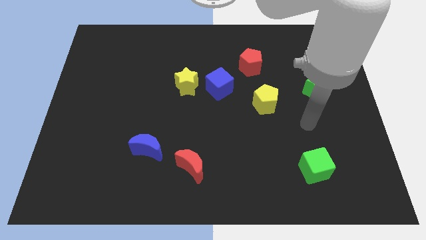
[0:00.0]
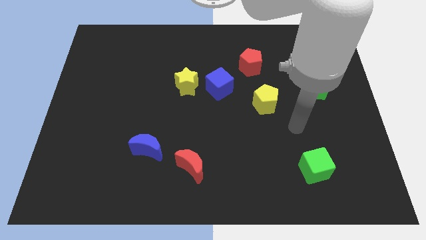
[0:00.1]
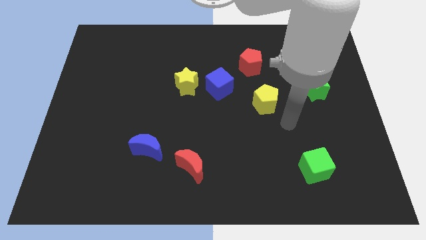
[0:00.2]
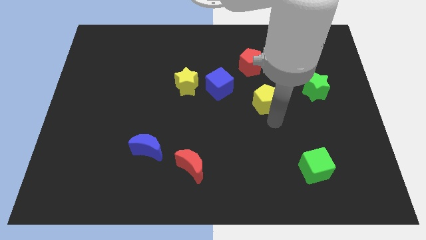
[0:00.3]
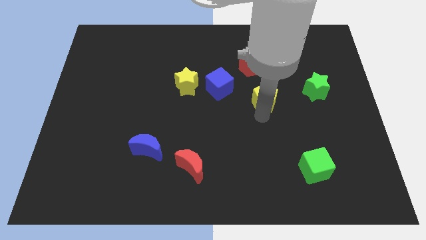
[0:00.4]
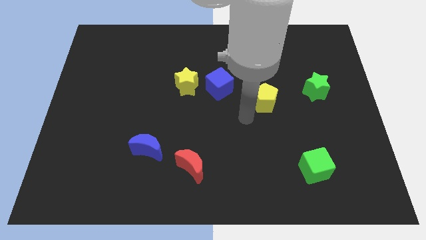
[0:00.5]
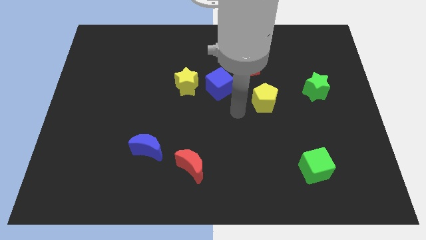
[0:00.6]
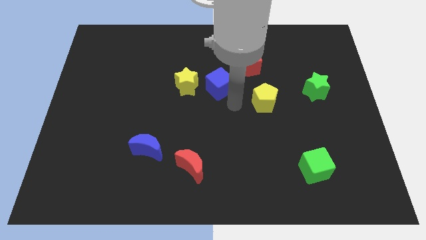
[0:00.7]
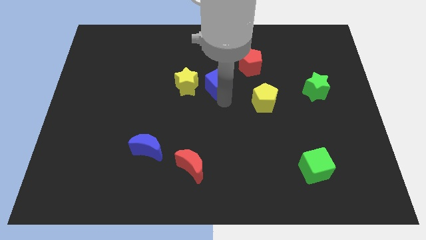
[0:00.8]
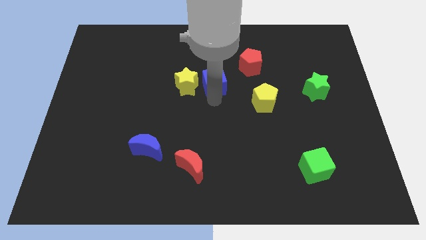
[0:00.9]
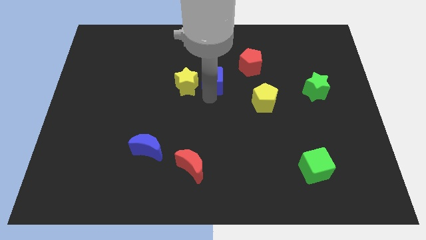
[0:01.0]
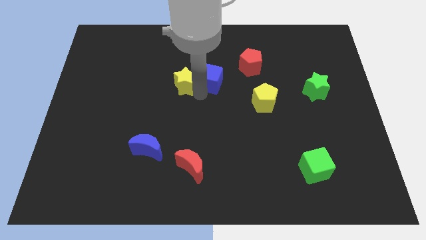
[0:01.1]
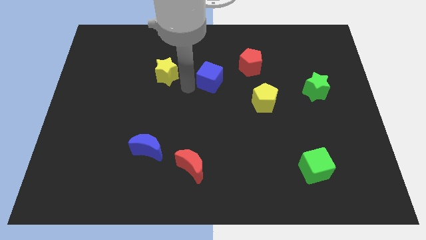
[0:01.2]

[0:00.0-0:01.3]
move the blue cube away from the yellow star

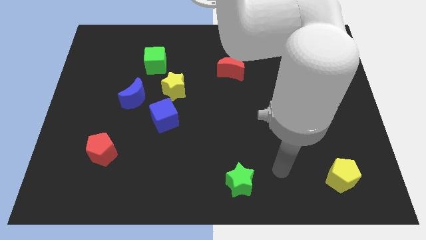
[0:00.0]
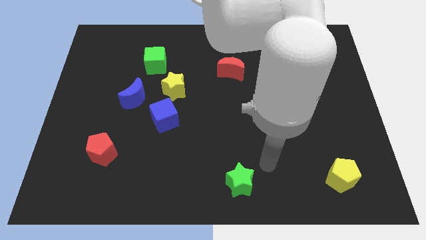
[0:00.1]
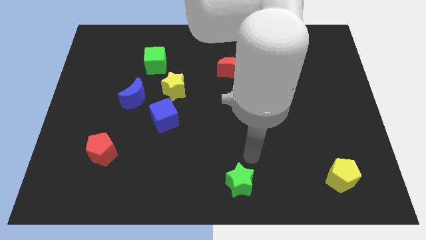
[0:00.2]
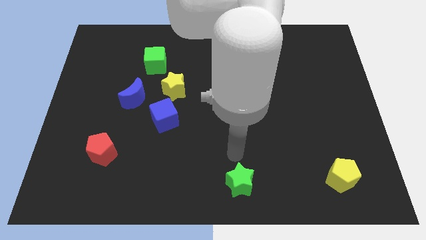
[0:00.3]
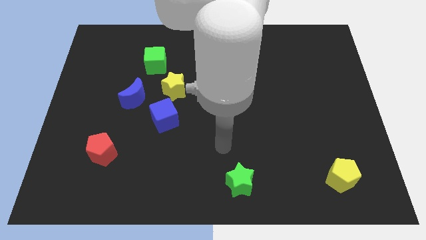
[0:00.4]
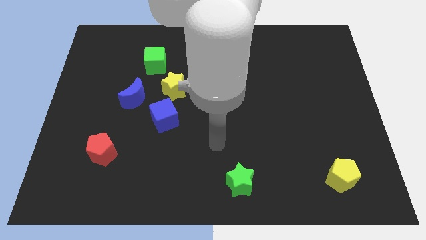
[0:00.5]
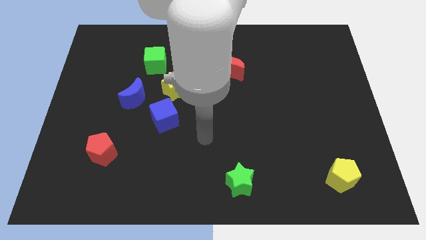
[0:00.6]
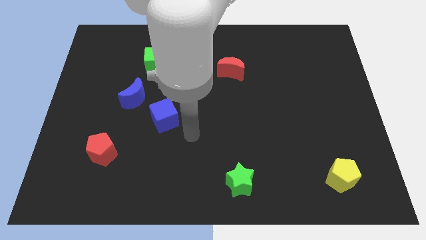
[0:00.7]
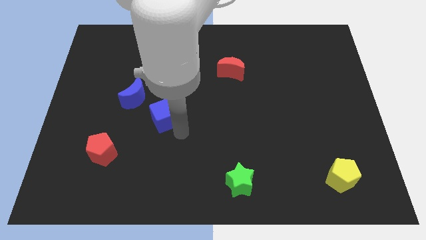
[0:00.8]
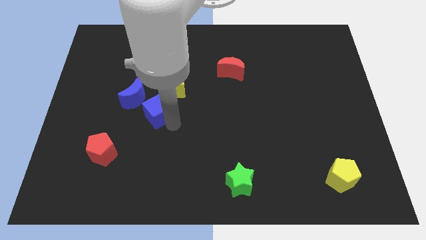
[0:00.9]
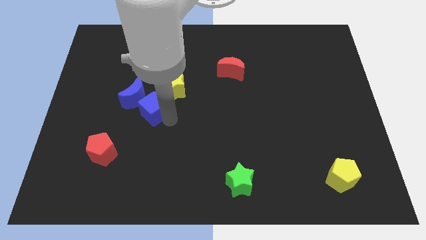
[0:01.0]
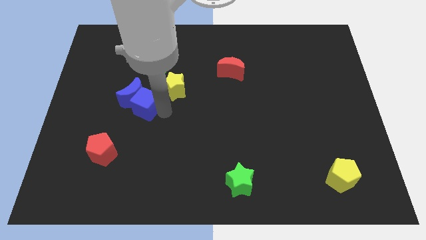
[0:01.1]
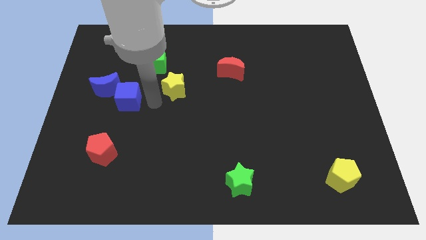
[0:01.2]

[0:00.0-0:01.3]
pull the yellow star apart from the blue cube and blue moon

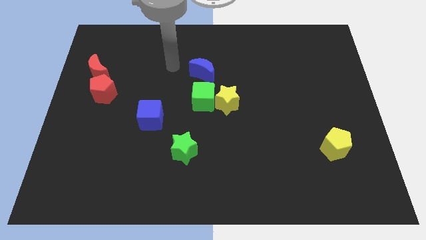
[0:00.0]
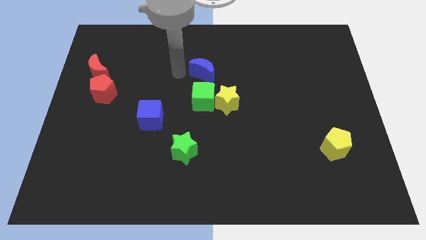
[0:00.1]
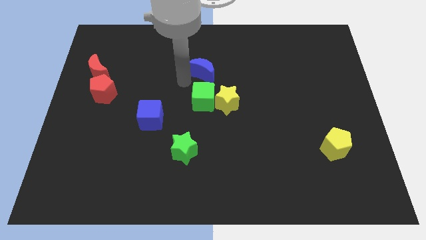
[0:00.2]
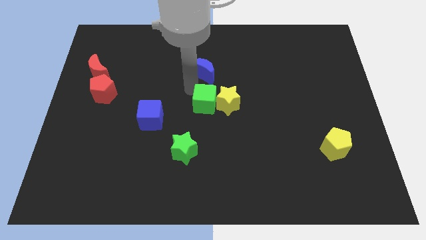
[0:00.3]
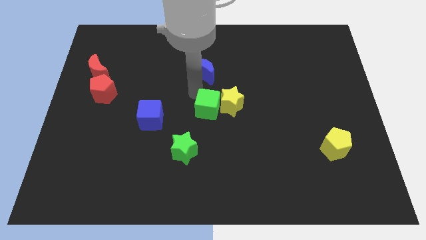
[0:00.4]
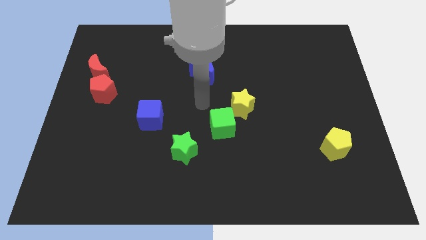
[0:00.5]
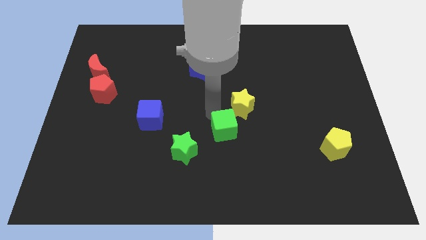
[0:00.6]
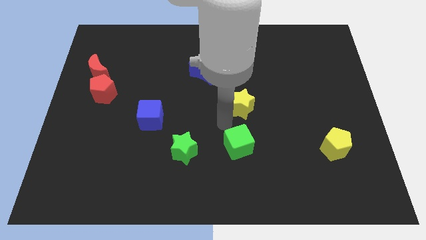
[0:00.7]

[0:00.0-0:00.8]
separate the yellow star from the green cube

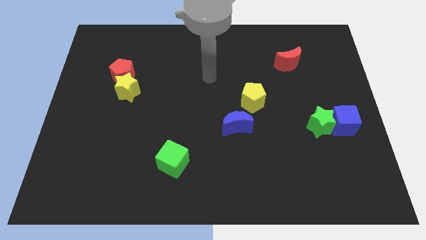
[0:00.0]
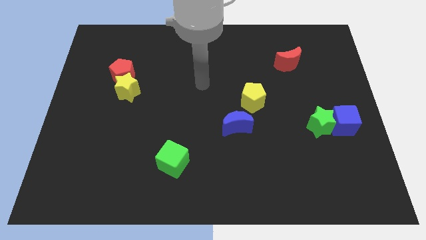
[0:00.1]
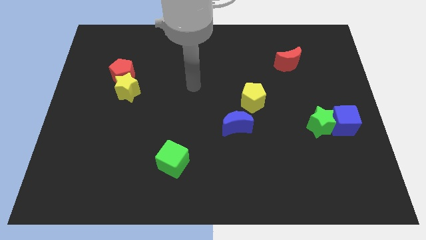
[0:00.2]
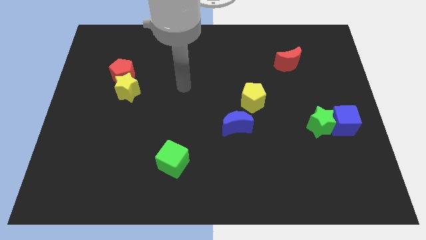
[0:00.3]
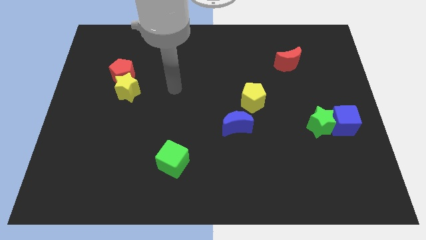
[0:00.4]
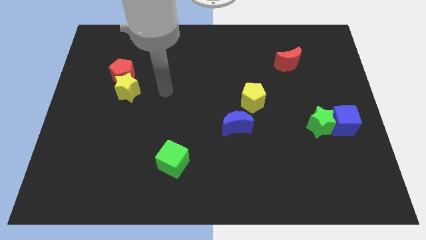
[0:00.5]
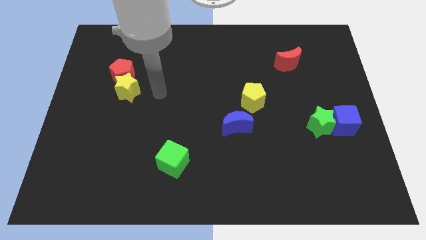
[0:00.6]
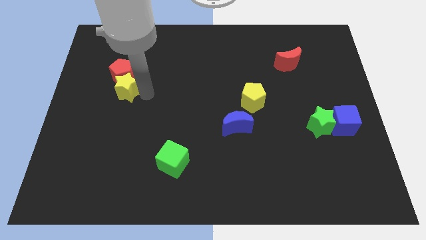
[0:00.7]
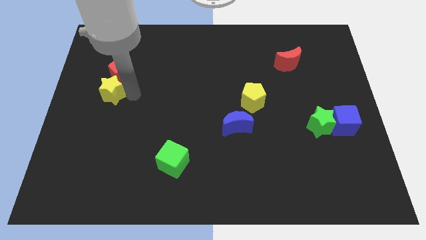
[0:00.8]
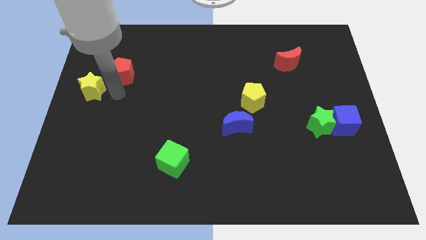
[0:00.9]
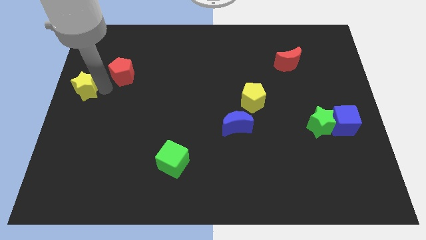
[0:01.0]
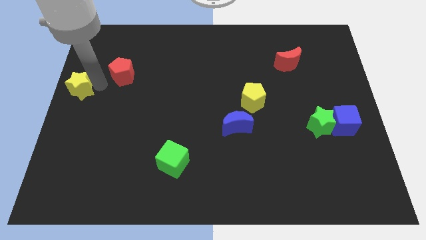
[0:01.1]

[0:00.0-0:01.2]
separate the red pentagon from the yellow star

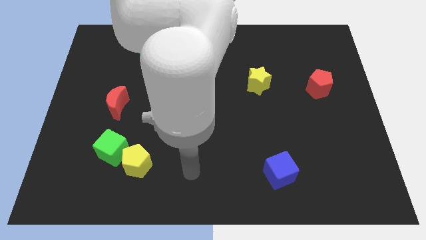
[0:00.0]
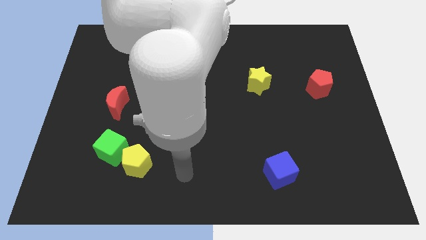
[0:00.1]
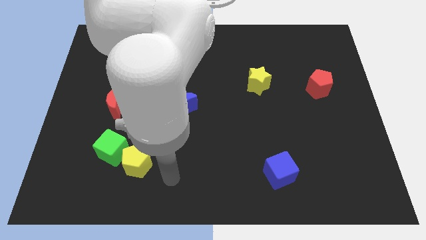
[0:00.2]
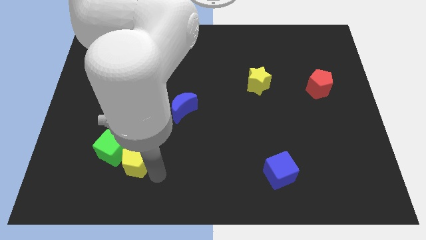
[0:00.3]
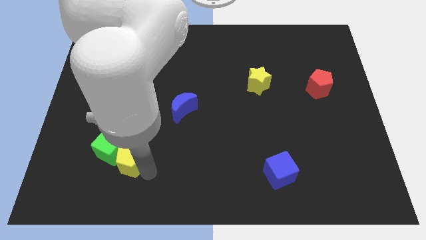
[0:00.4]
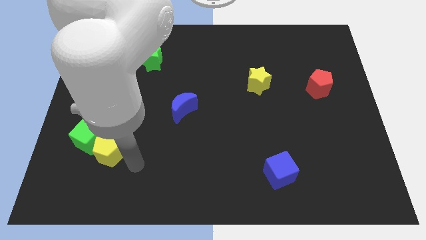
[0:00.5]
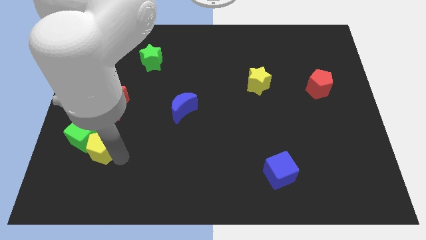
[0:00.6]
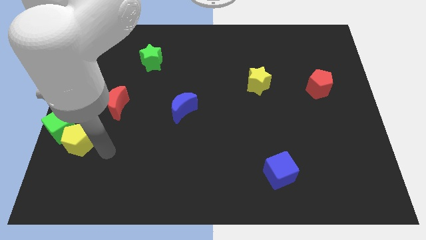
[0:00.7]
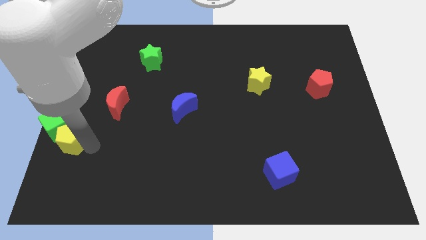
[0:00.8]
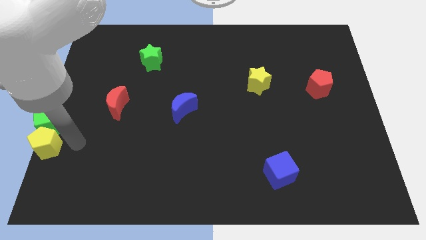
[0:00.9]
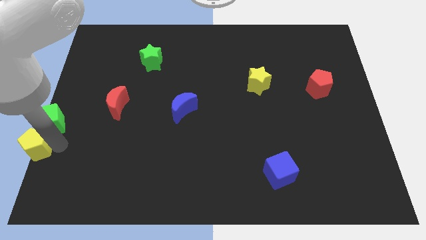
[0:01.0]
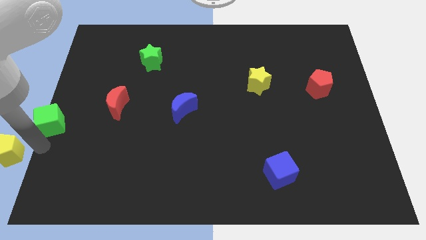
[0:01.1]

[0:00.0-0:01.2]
pull the green cube apart from the yellow pentagon

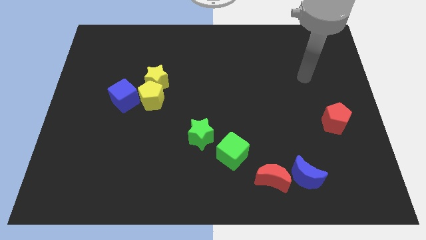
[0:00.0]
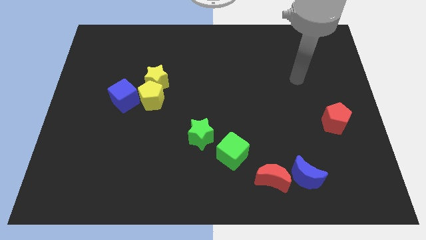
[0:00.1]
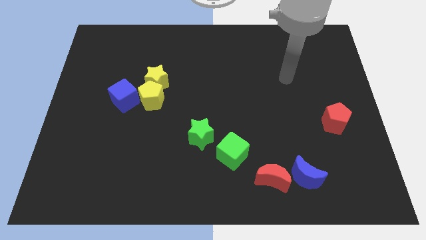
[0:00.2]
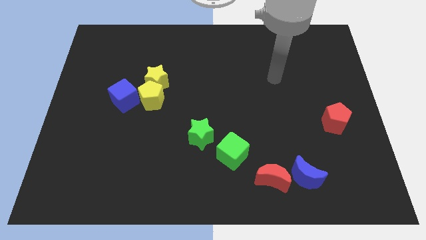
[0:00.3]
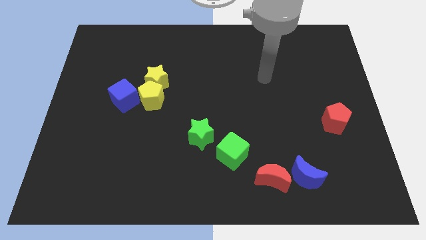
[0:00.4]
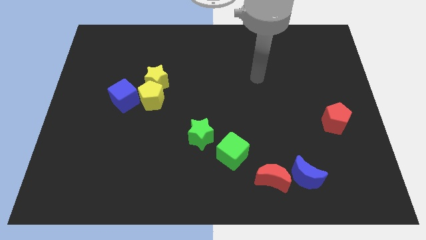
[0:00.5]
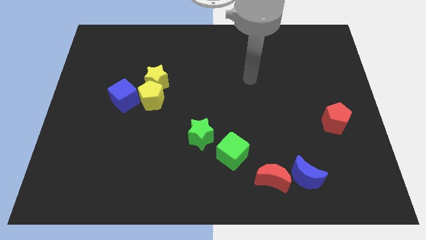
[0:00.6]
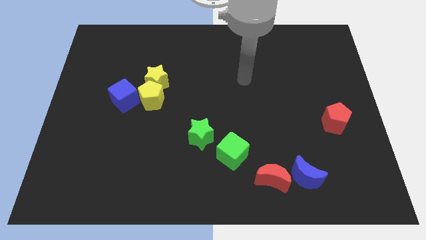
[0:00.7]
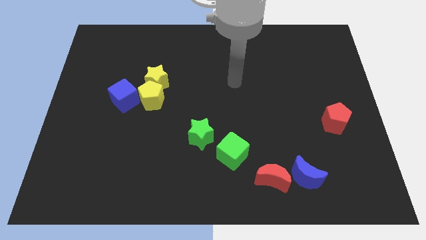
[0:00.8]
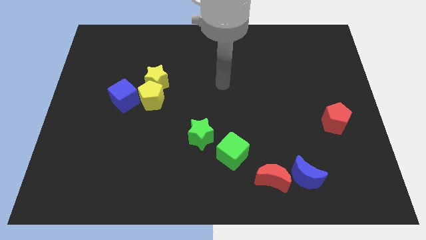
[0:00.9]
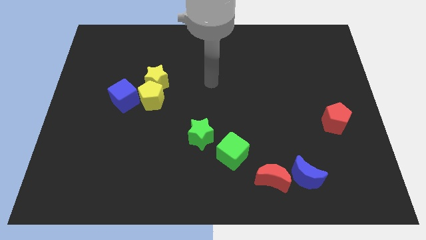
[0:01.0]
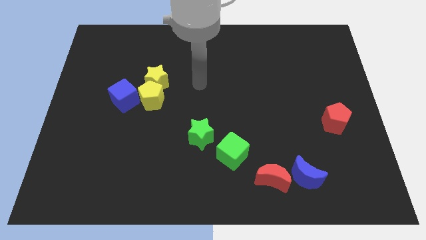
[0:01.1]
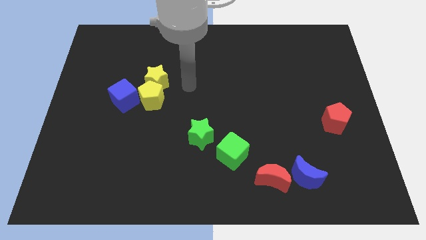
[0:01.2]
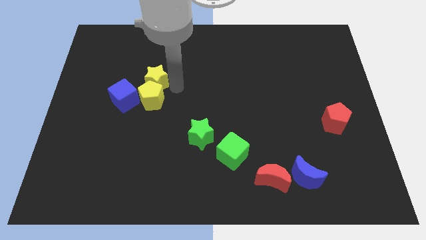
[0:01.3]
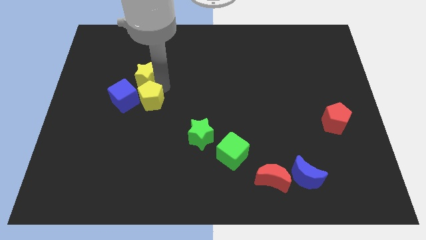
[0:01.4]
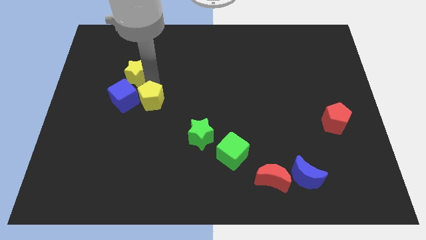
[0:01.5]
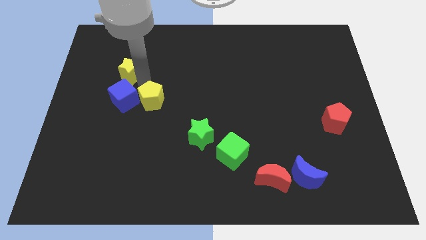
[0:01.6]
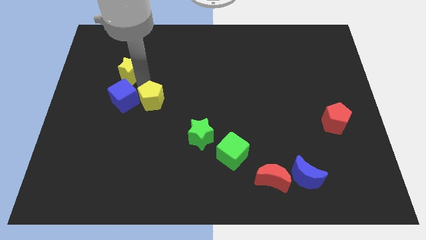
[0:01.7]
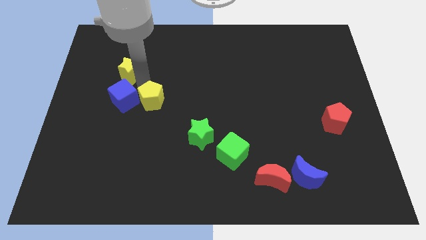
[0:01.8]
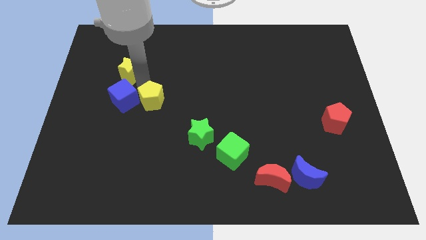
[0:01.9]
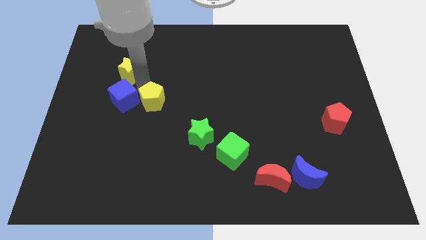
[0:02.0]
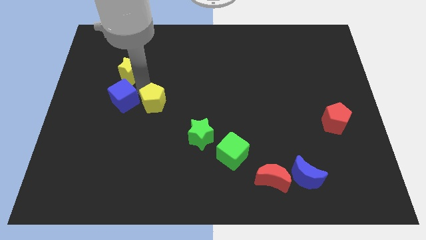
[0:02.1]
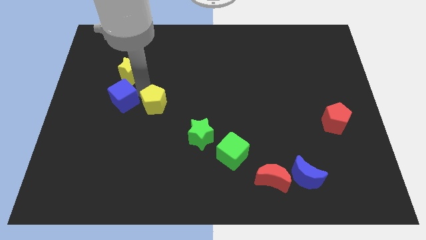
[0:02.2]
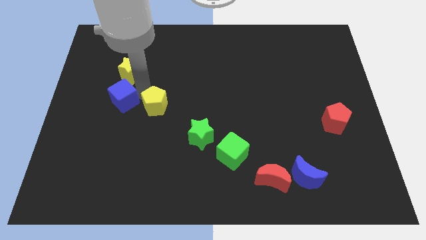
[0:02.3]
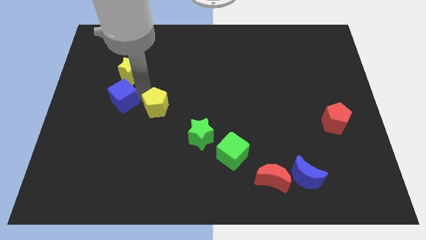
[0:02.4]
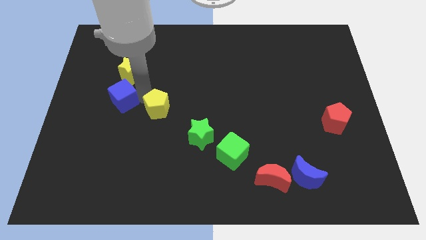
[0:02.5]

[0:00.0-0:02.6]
separate the yellow pentagon from the yellow star and blue cube

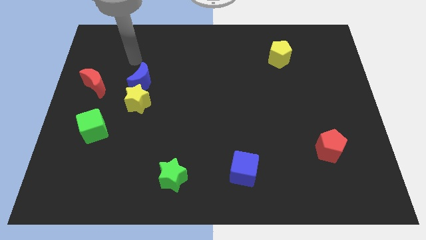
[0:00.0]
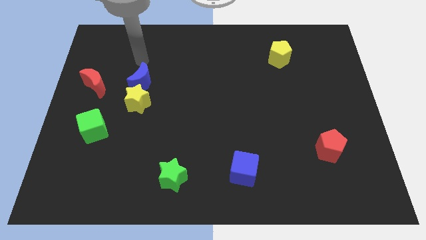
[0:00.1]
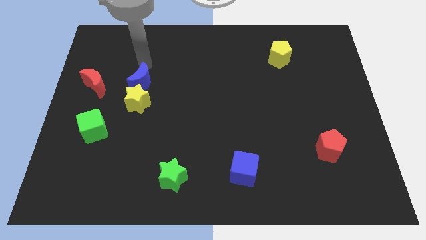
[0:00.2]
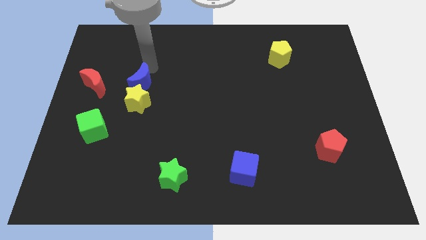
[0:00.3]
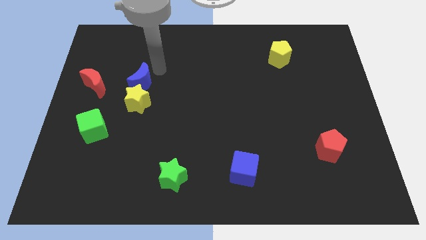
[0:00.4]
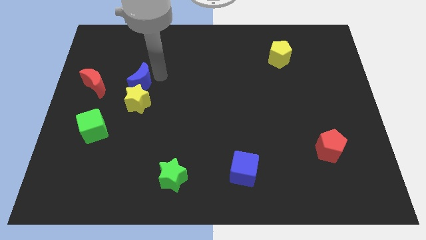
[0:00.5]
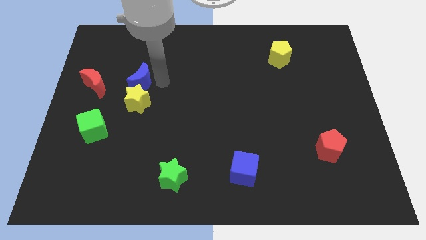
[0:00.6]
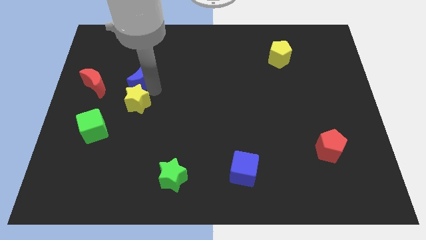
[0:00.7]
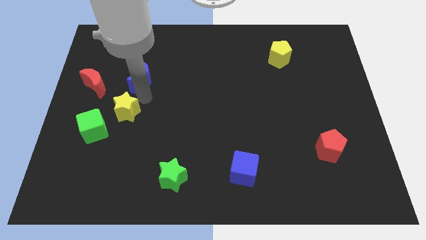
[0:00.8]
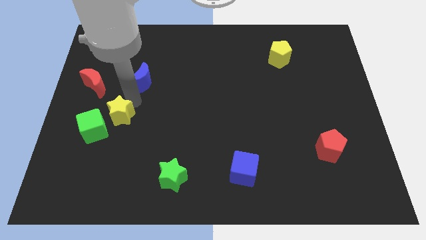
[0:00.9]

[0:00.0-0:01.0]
move the blue moon away from the yellow star
